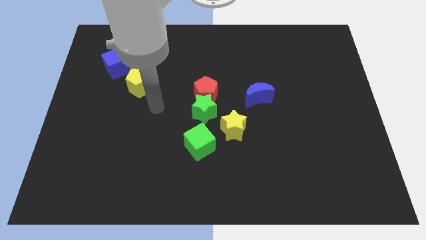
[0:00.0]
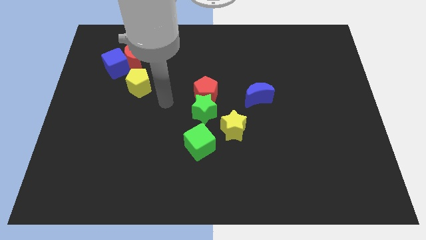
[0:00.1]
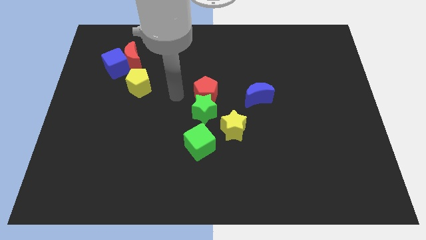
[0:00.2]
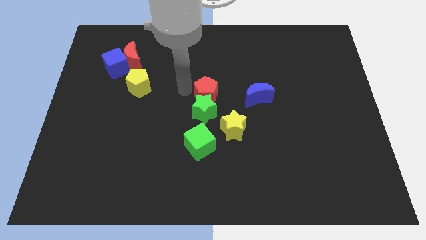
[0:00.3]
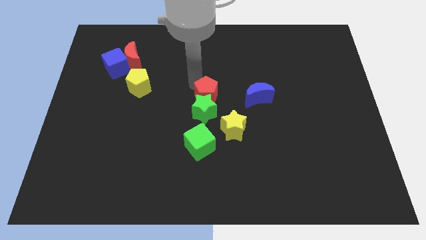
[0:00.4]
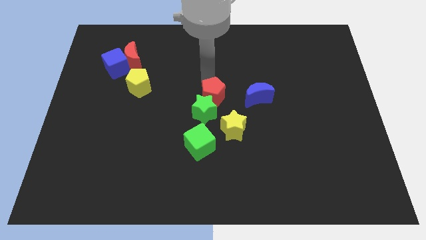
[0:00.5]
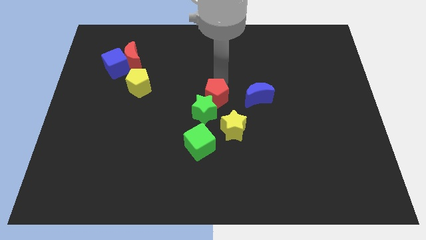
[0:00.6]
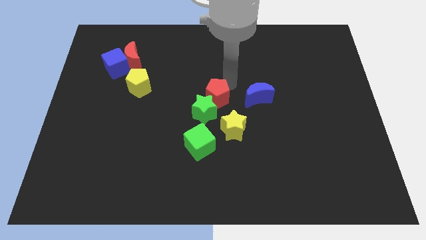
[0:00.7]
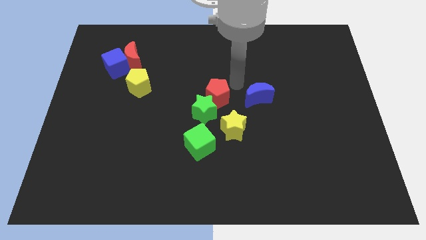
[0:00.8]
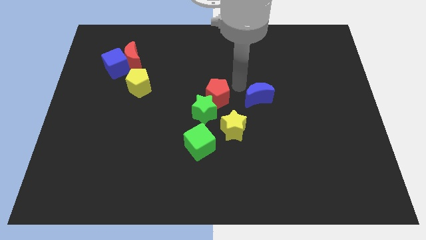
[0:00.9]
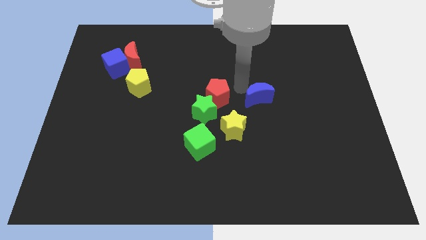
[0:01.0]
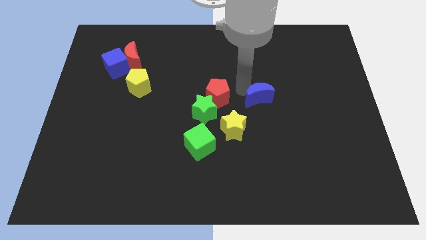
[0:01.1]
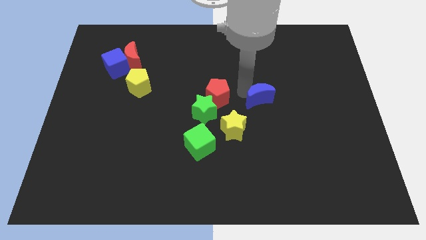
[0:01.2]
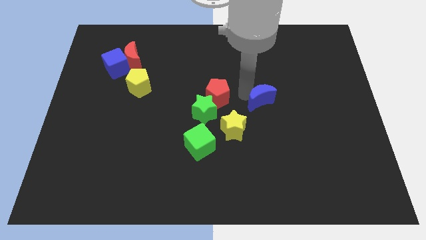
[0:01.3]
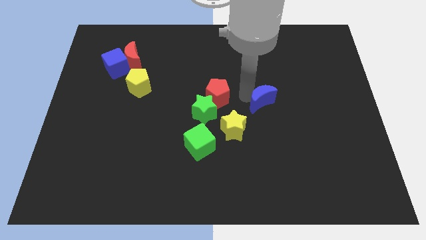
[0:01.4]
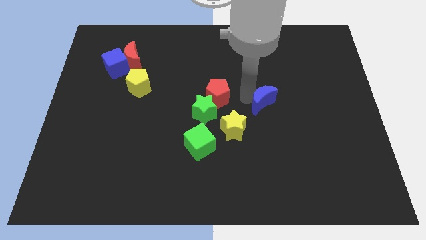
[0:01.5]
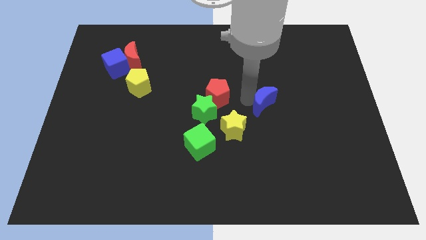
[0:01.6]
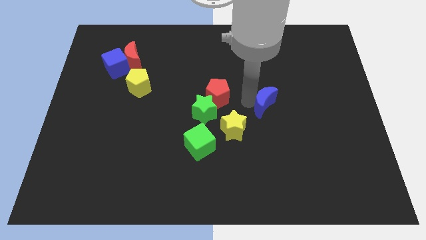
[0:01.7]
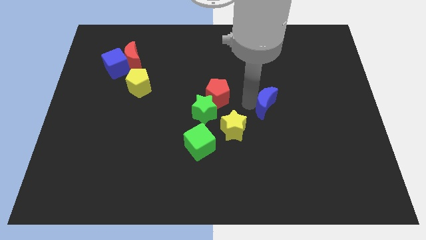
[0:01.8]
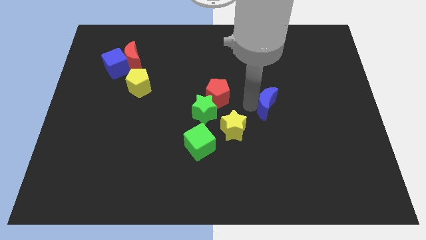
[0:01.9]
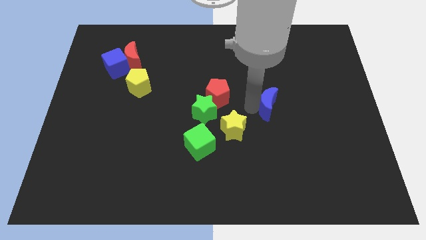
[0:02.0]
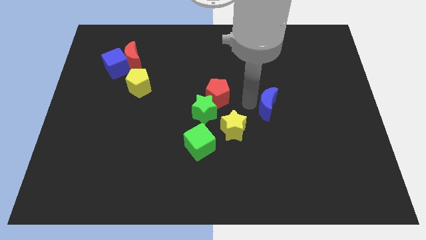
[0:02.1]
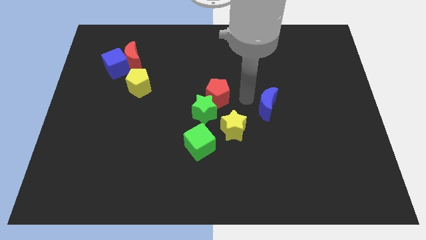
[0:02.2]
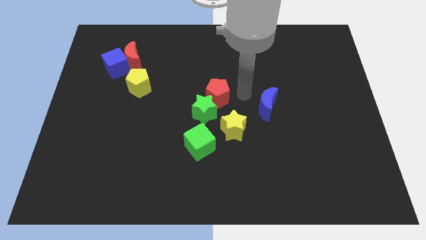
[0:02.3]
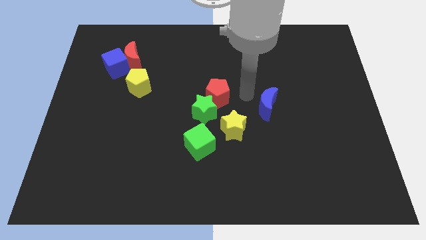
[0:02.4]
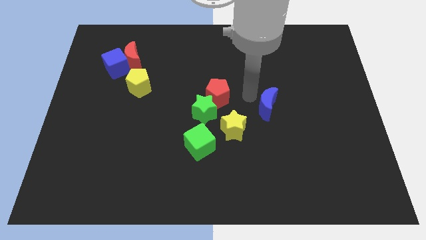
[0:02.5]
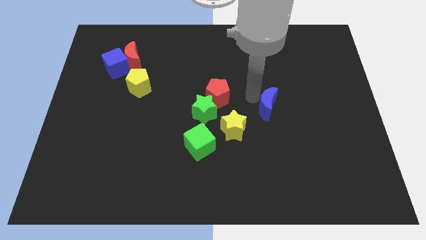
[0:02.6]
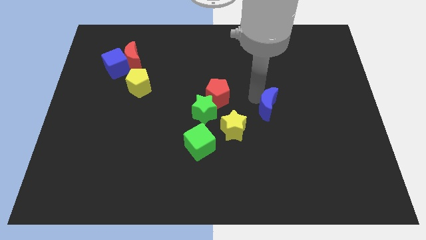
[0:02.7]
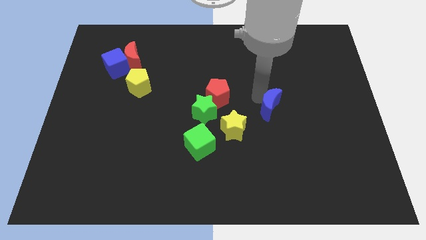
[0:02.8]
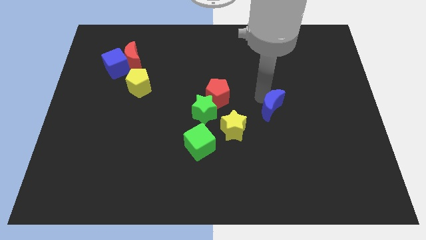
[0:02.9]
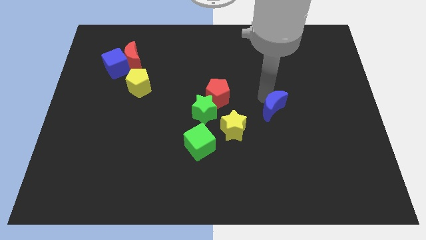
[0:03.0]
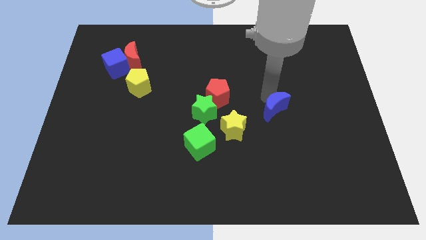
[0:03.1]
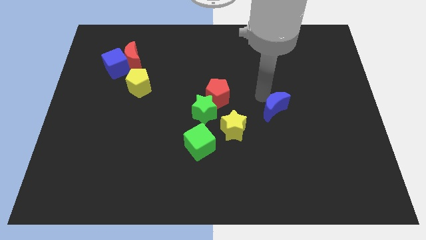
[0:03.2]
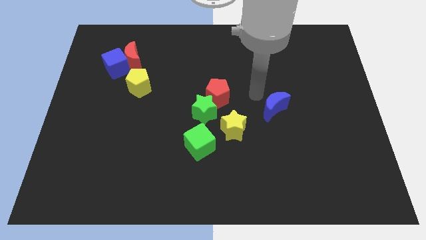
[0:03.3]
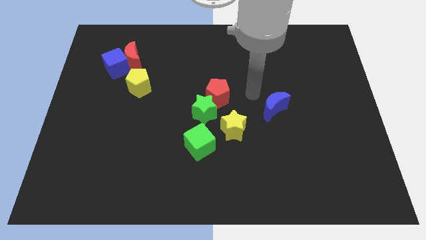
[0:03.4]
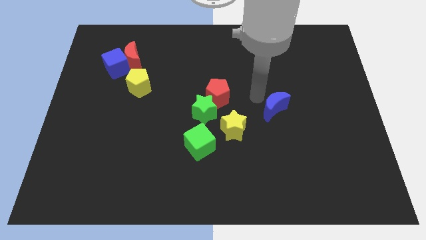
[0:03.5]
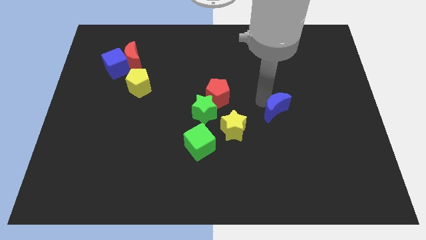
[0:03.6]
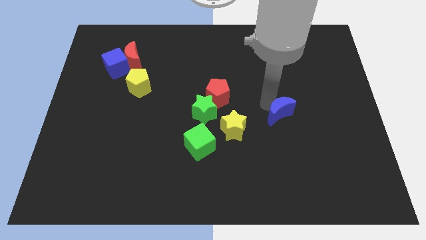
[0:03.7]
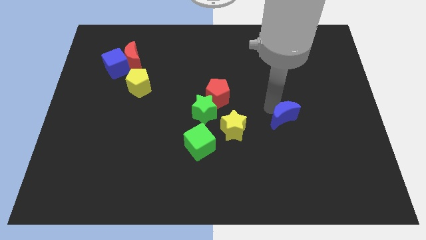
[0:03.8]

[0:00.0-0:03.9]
slightly push the blue moon down and then to the right

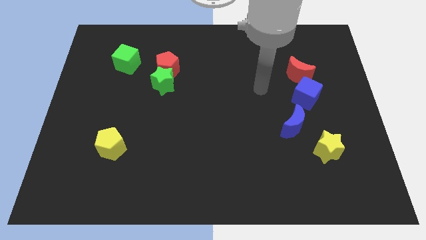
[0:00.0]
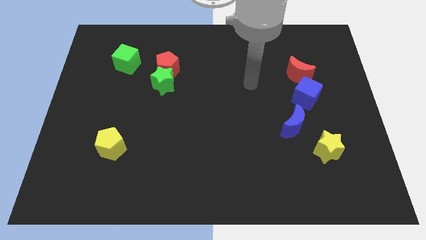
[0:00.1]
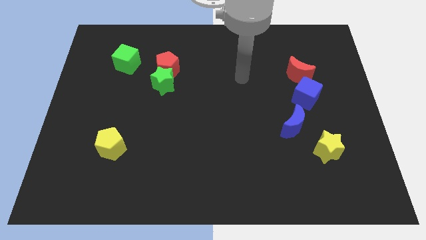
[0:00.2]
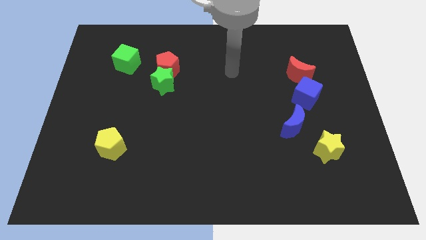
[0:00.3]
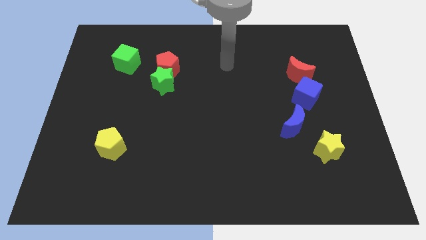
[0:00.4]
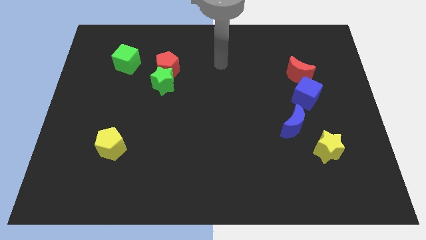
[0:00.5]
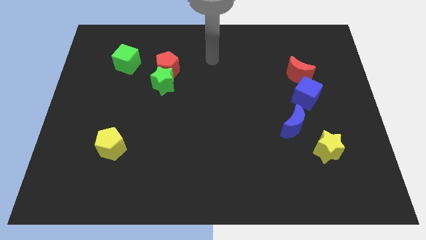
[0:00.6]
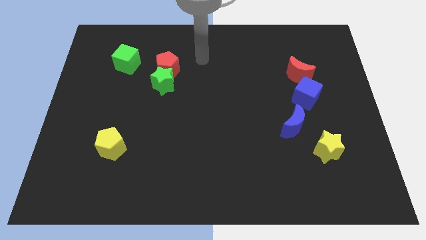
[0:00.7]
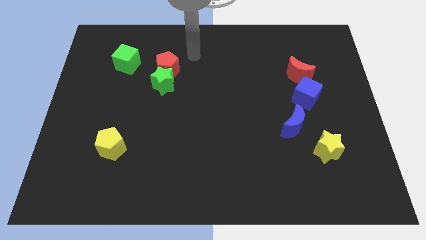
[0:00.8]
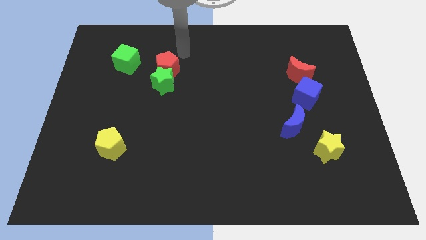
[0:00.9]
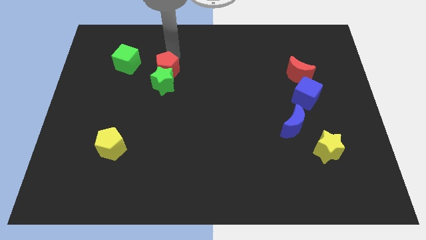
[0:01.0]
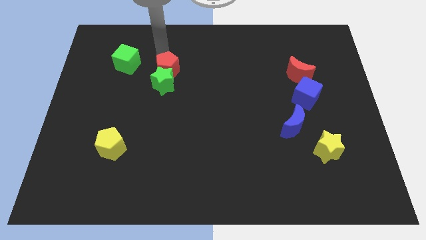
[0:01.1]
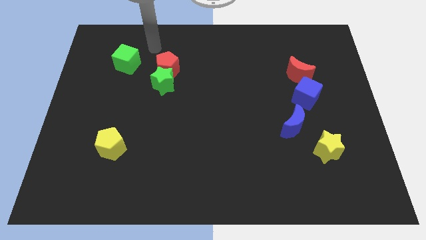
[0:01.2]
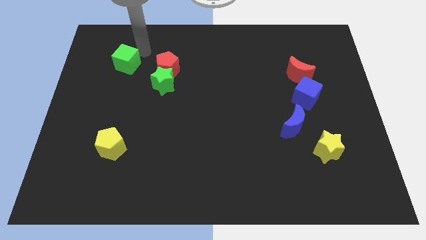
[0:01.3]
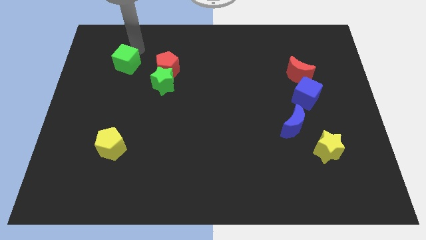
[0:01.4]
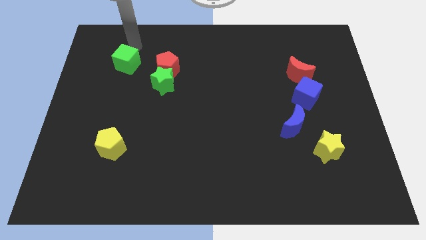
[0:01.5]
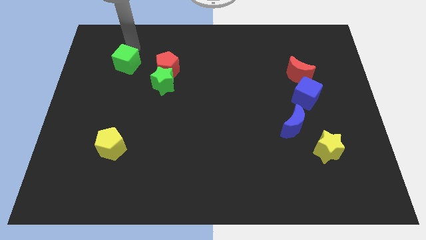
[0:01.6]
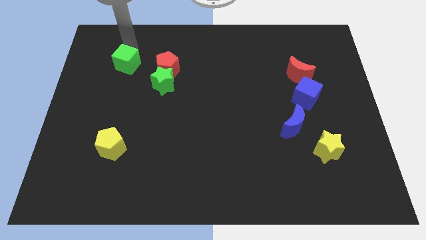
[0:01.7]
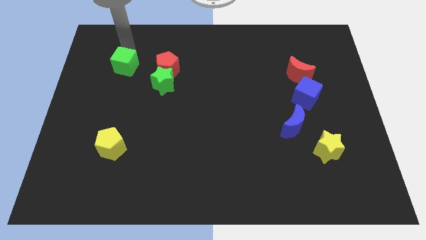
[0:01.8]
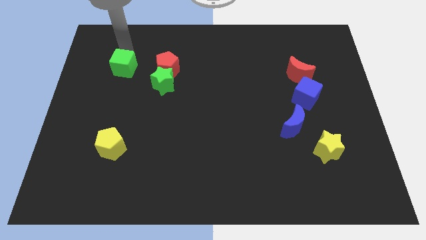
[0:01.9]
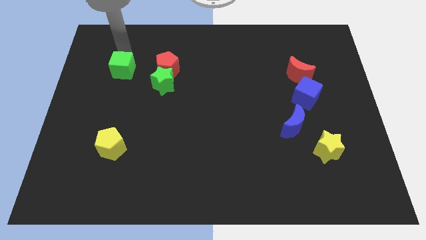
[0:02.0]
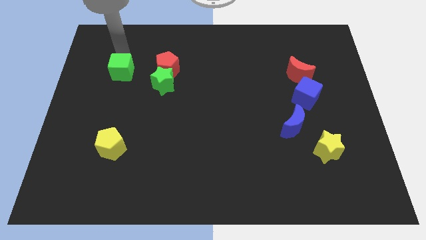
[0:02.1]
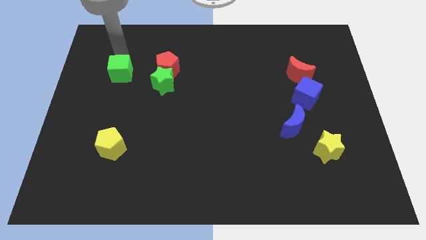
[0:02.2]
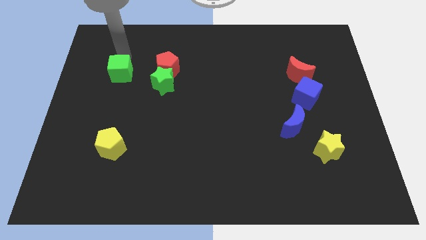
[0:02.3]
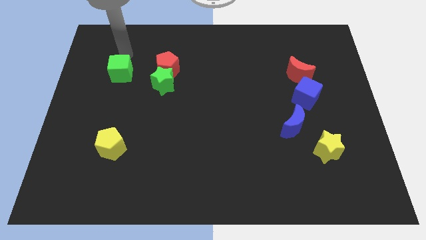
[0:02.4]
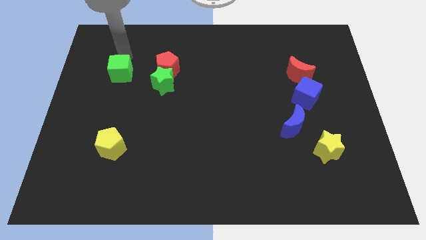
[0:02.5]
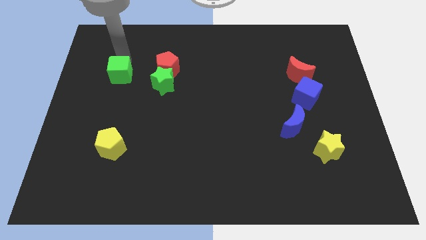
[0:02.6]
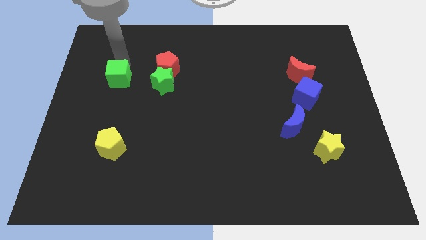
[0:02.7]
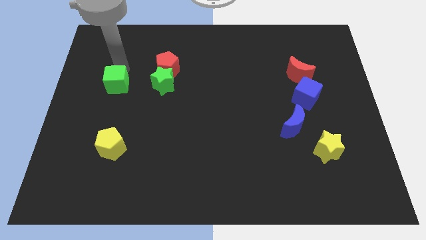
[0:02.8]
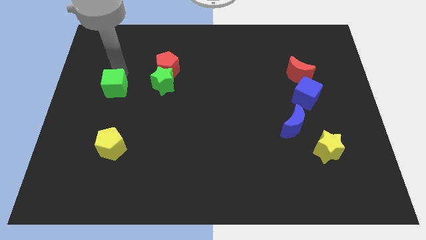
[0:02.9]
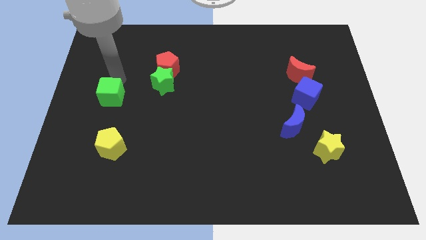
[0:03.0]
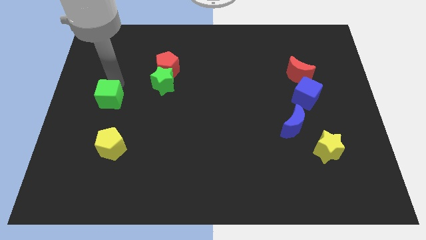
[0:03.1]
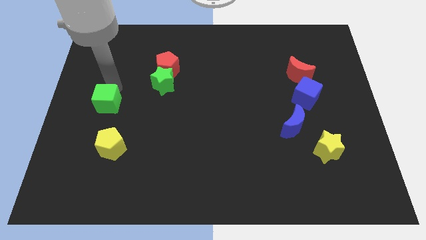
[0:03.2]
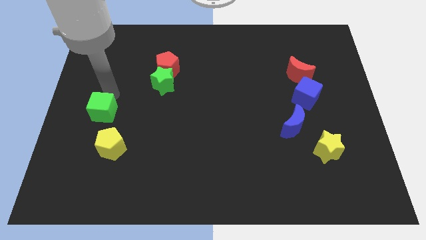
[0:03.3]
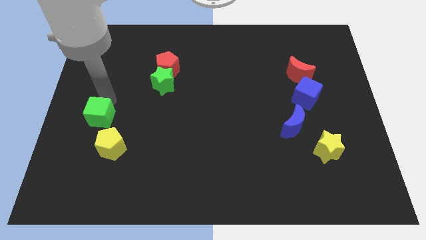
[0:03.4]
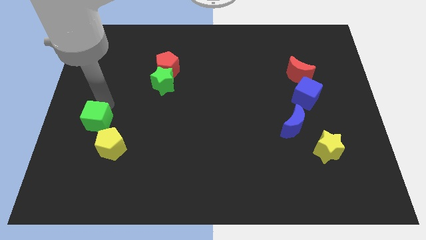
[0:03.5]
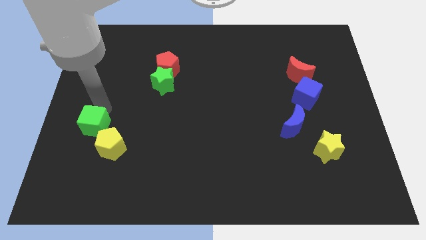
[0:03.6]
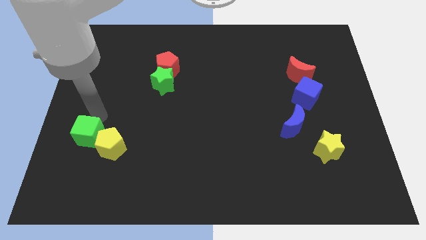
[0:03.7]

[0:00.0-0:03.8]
slide the green cube downwards

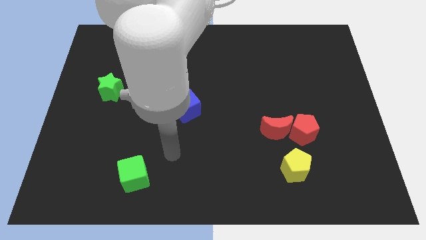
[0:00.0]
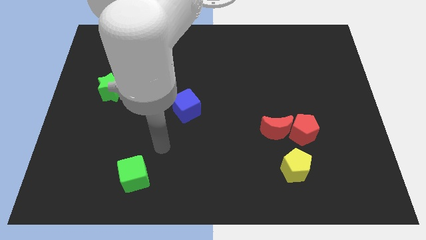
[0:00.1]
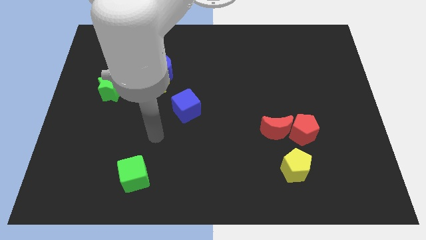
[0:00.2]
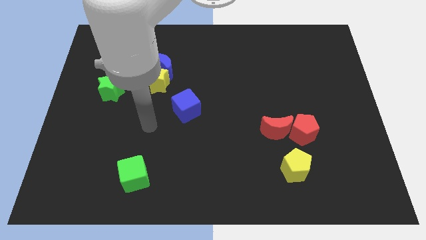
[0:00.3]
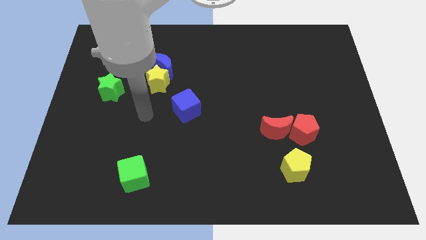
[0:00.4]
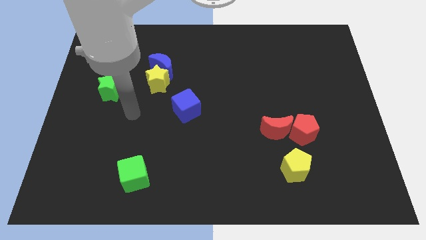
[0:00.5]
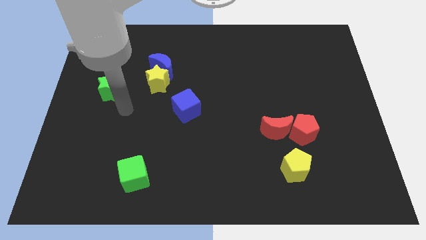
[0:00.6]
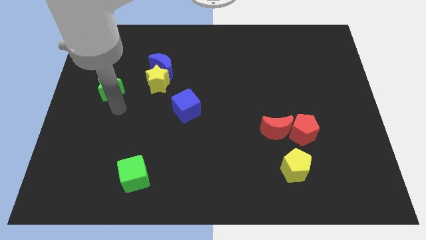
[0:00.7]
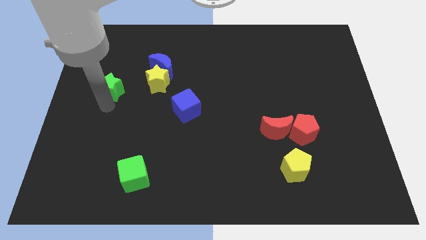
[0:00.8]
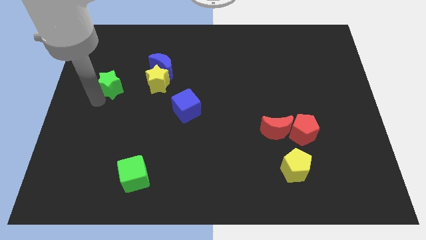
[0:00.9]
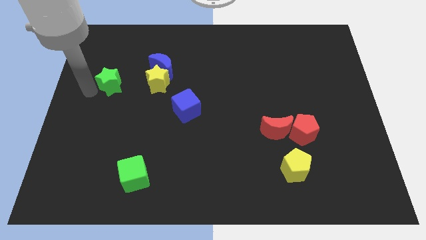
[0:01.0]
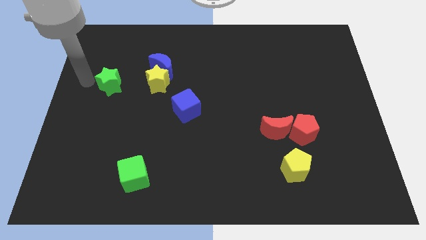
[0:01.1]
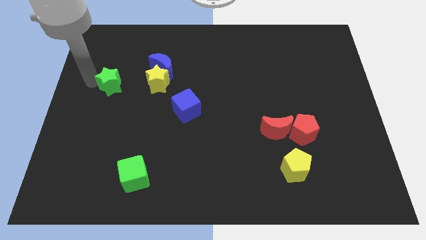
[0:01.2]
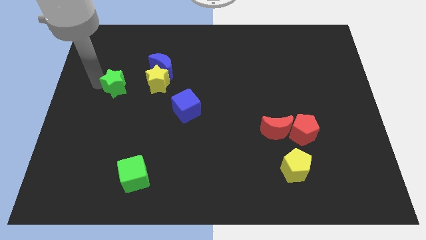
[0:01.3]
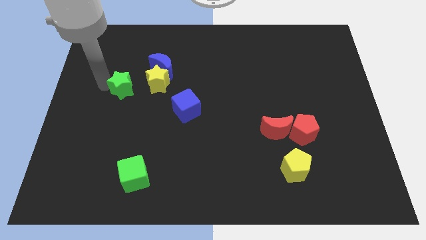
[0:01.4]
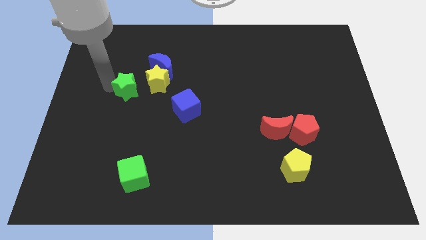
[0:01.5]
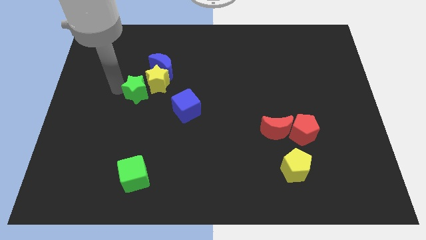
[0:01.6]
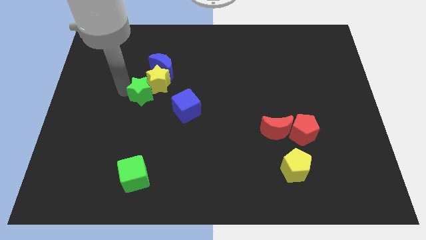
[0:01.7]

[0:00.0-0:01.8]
slightly push the green star to the right
